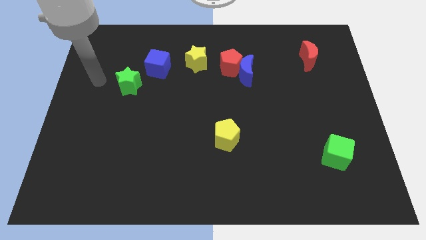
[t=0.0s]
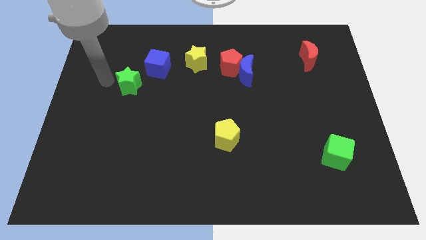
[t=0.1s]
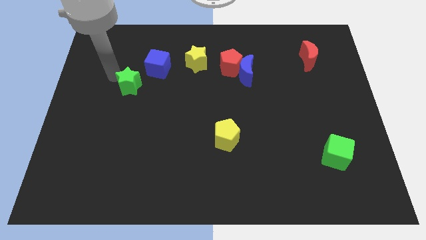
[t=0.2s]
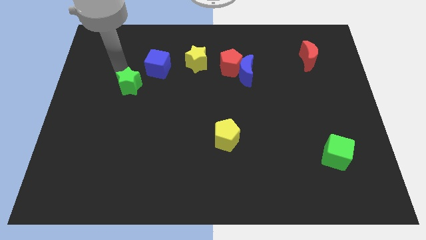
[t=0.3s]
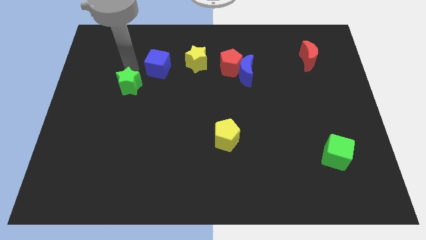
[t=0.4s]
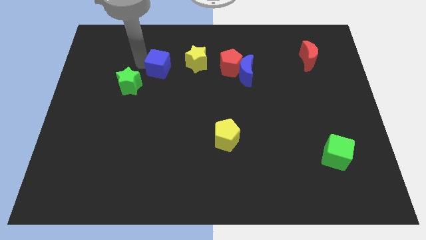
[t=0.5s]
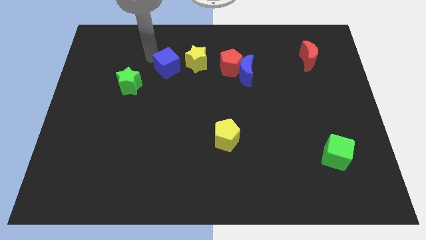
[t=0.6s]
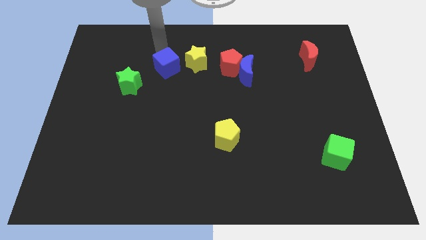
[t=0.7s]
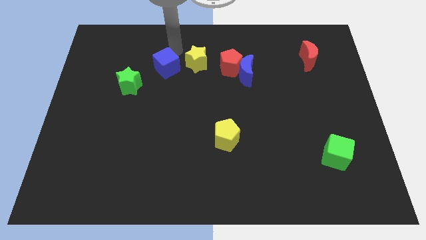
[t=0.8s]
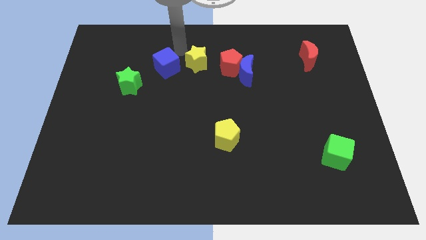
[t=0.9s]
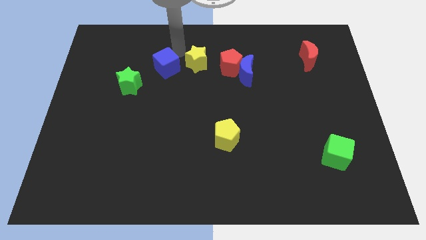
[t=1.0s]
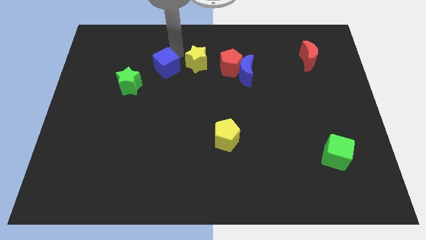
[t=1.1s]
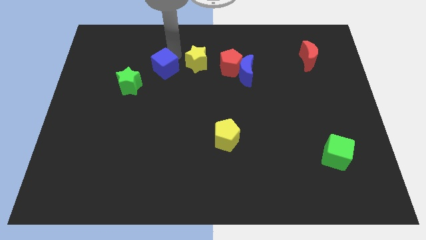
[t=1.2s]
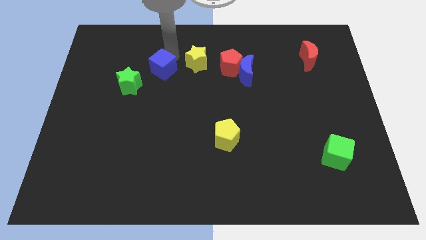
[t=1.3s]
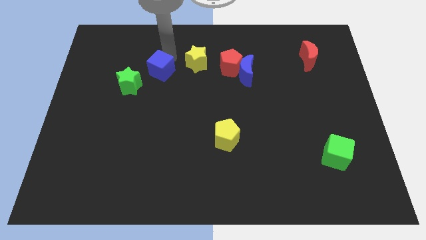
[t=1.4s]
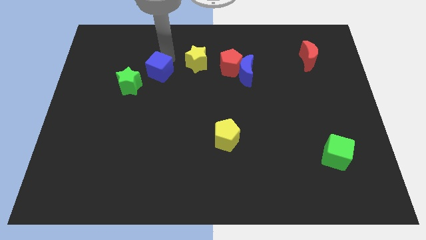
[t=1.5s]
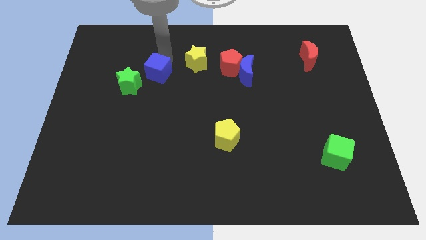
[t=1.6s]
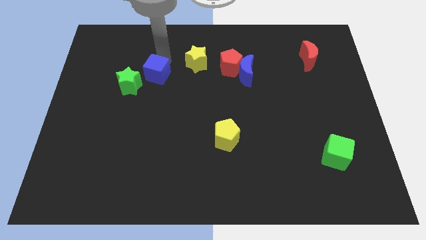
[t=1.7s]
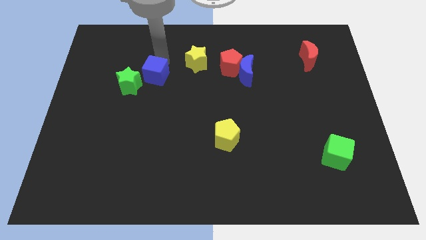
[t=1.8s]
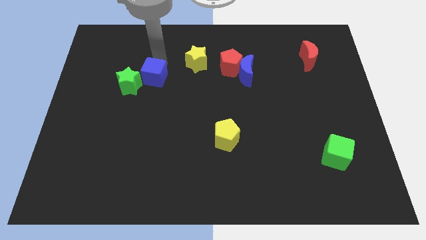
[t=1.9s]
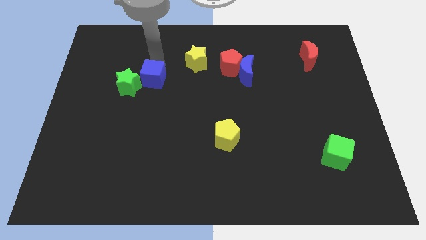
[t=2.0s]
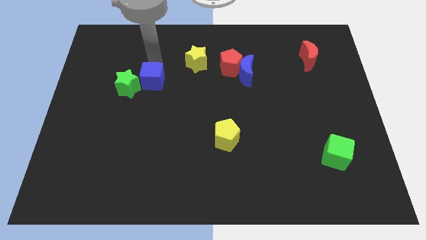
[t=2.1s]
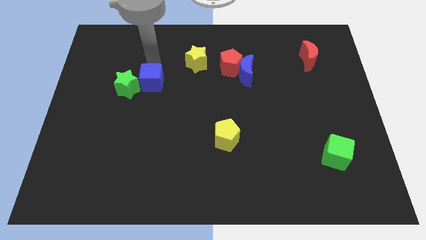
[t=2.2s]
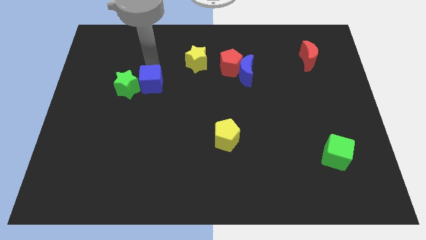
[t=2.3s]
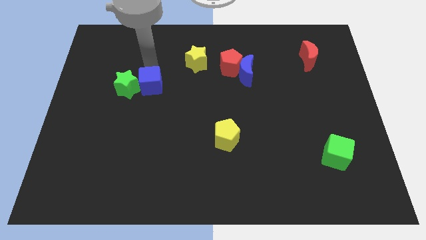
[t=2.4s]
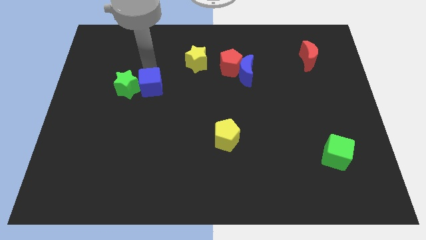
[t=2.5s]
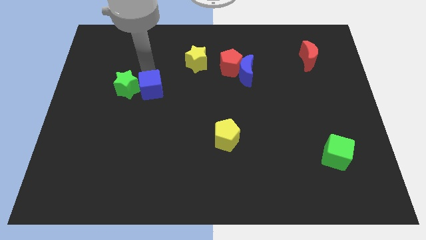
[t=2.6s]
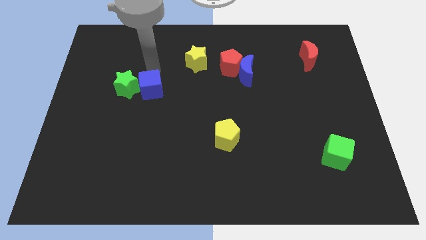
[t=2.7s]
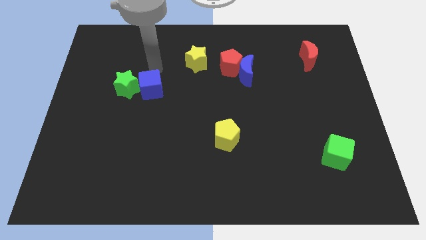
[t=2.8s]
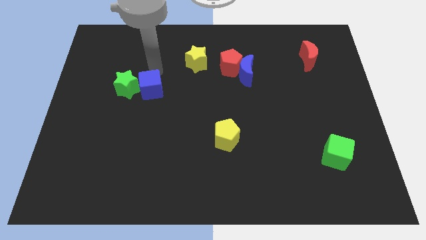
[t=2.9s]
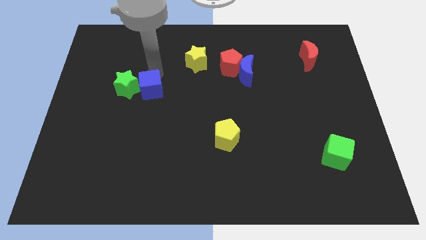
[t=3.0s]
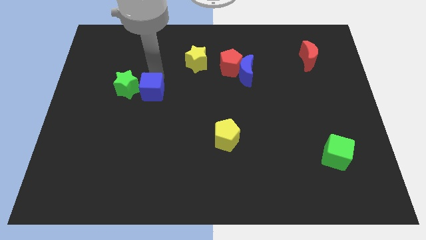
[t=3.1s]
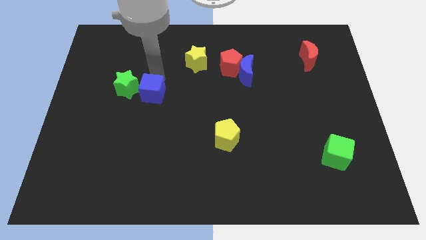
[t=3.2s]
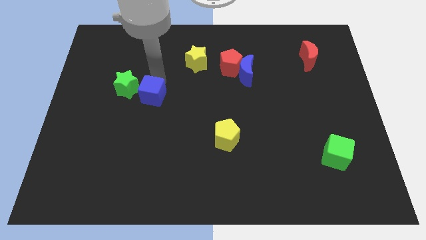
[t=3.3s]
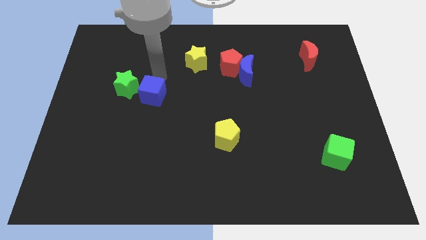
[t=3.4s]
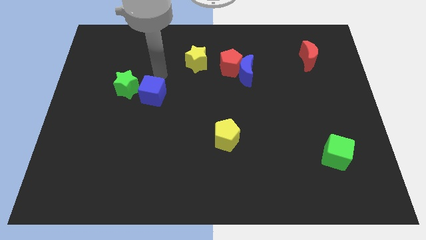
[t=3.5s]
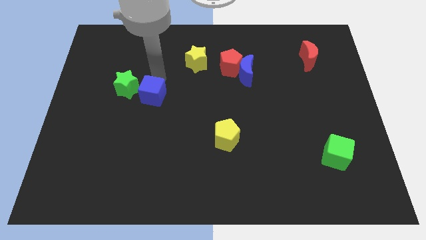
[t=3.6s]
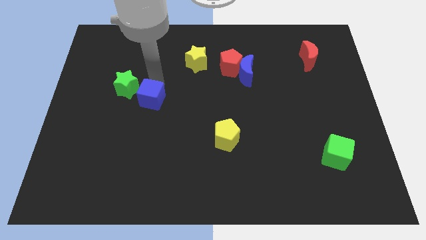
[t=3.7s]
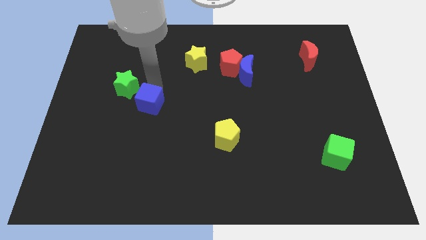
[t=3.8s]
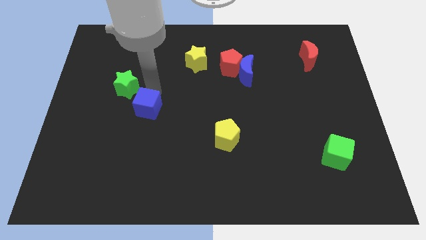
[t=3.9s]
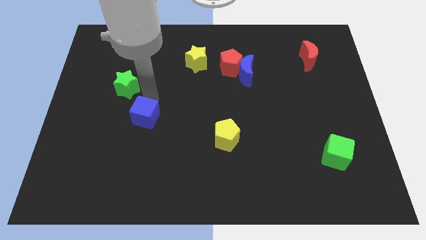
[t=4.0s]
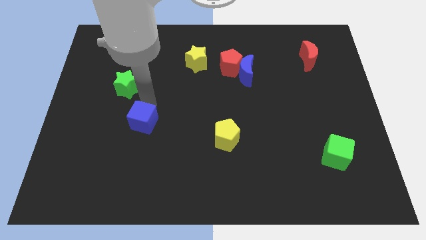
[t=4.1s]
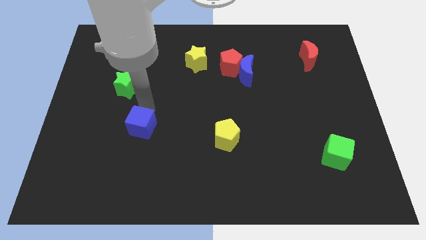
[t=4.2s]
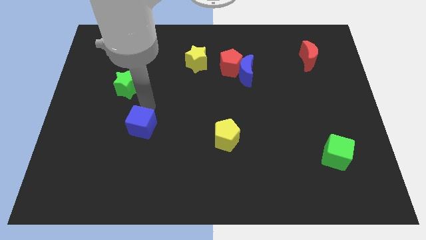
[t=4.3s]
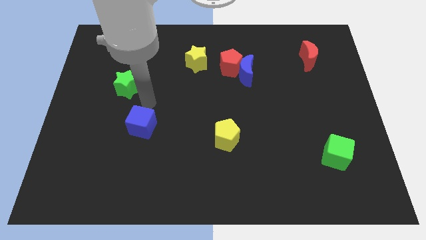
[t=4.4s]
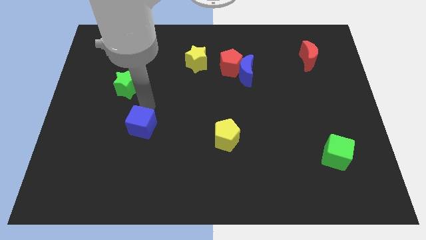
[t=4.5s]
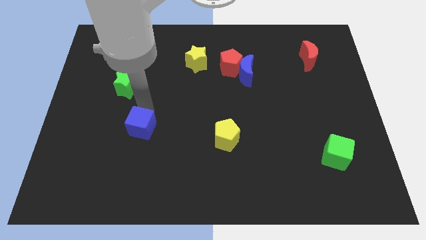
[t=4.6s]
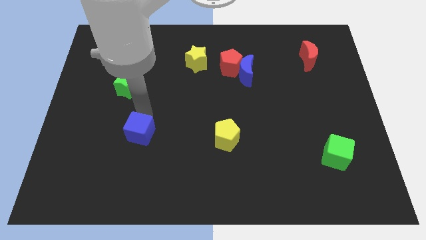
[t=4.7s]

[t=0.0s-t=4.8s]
push the blue cube downwards

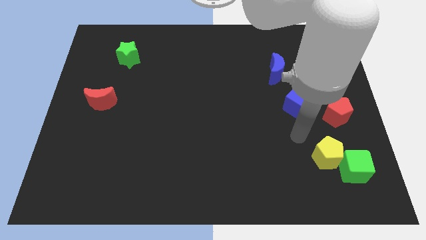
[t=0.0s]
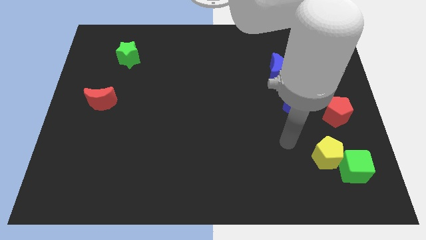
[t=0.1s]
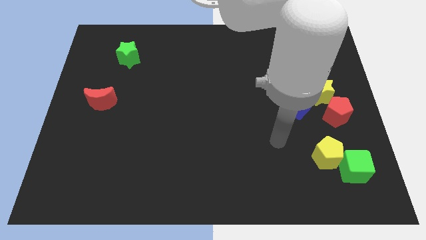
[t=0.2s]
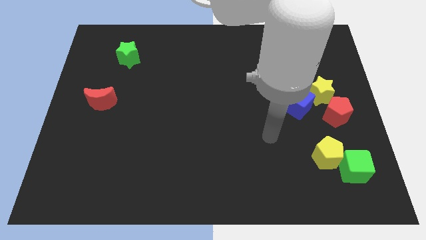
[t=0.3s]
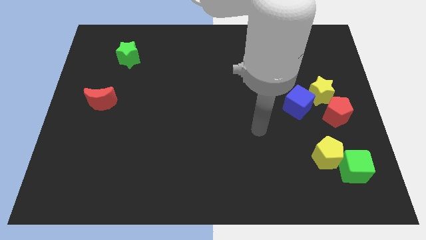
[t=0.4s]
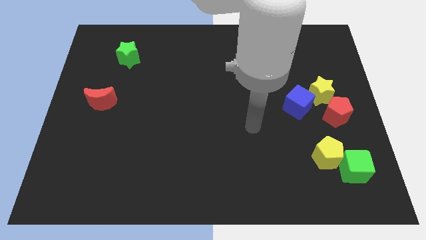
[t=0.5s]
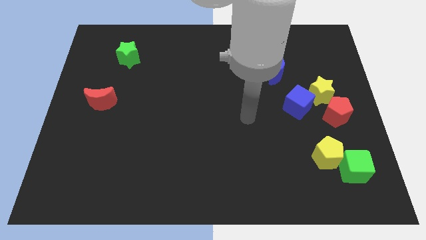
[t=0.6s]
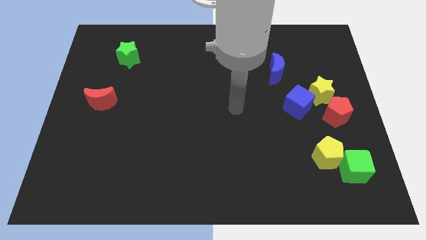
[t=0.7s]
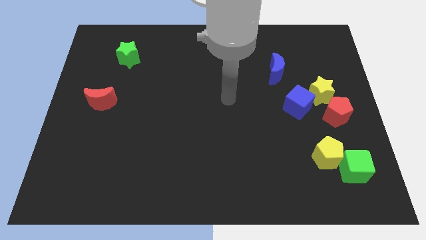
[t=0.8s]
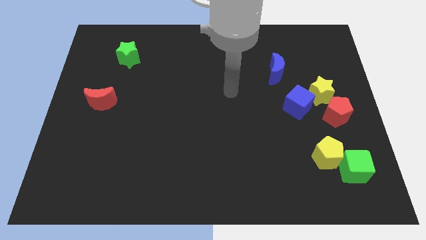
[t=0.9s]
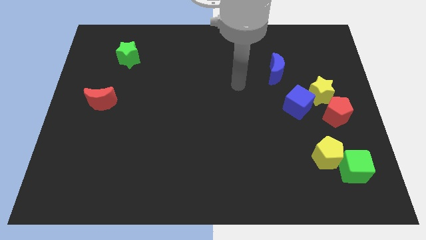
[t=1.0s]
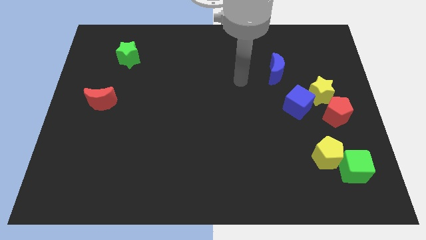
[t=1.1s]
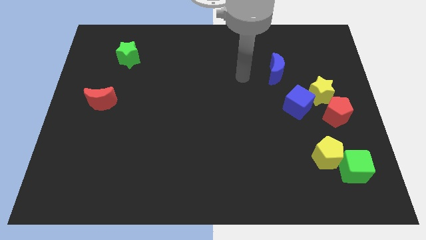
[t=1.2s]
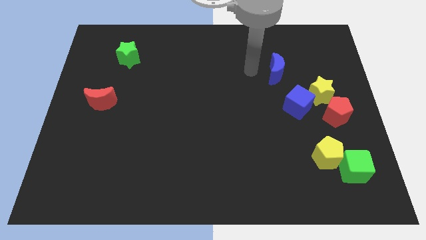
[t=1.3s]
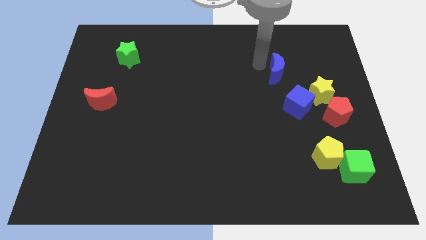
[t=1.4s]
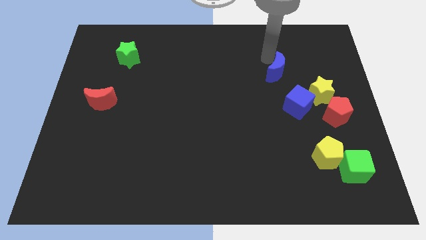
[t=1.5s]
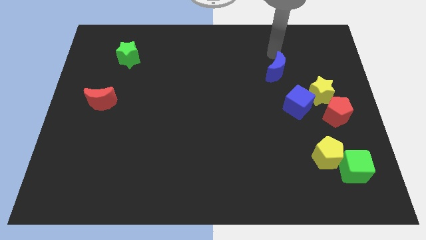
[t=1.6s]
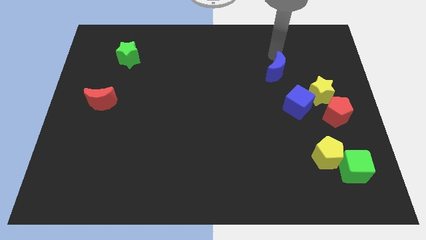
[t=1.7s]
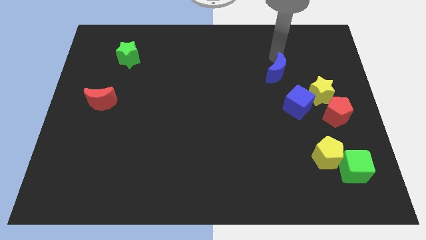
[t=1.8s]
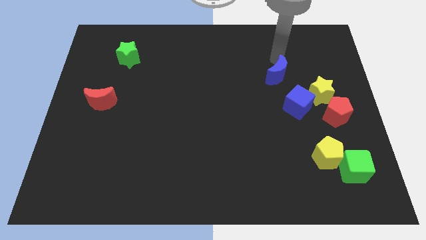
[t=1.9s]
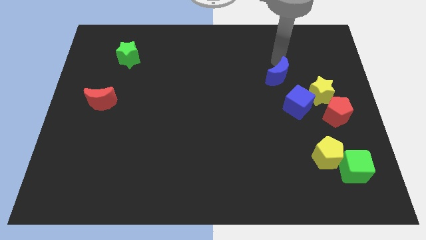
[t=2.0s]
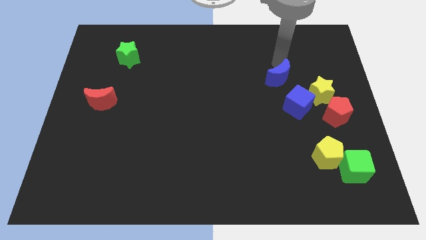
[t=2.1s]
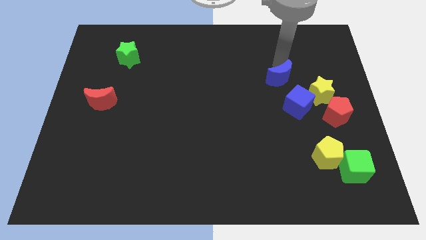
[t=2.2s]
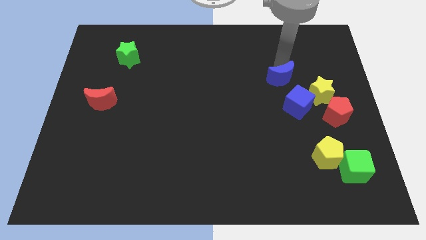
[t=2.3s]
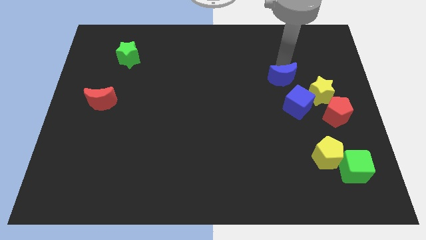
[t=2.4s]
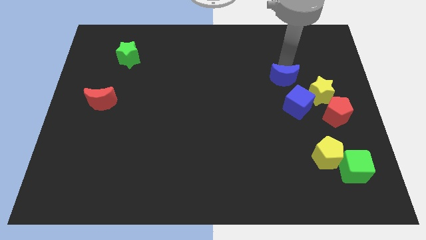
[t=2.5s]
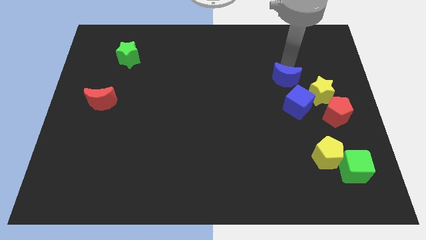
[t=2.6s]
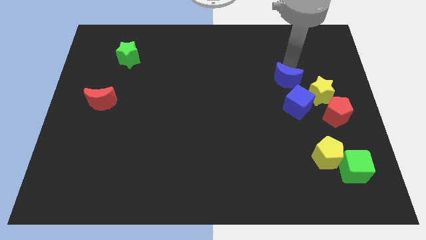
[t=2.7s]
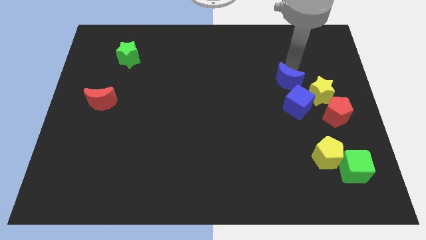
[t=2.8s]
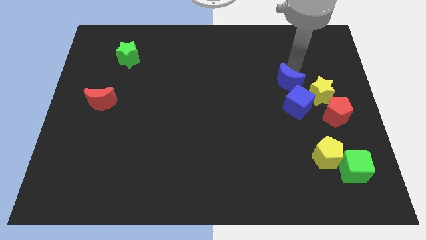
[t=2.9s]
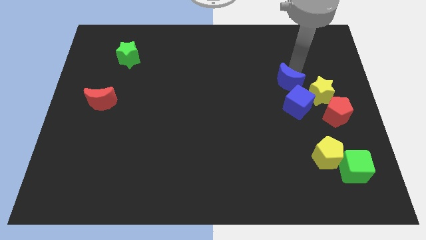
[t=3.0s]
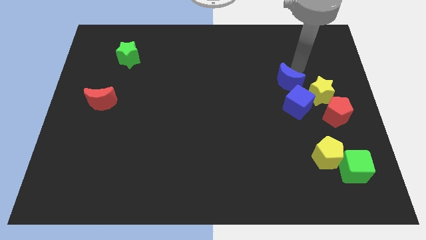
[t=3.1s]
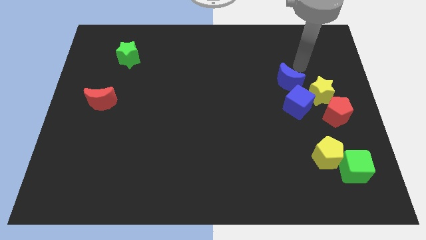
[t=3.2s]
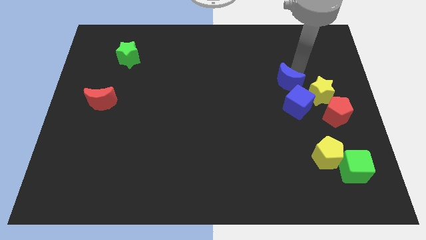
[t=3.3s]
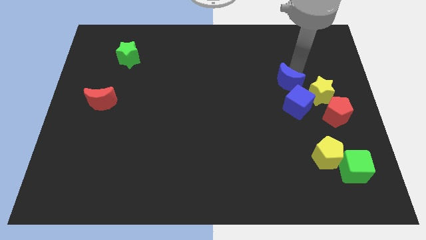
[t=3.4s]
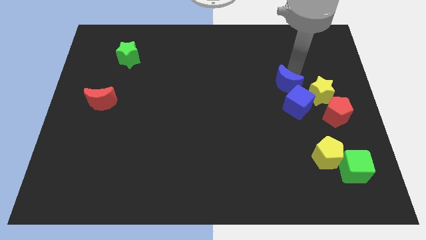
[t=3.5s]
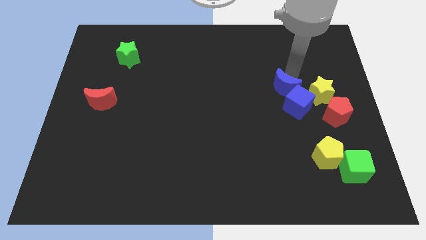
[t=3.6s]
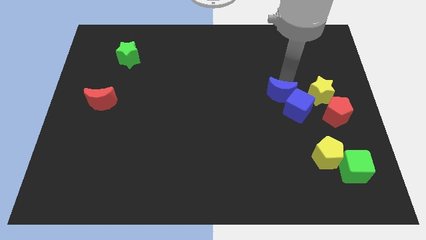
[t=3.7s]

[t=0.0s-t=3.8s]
move the blue moon down a little bit
